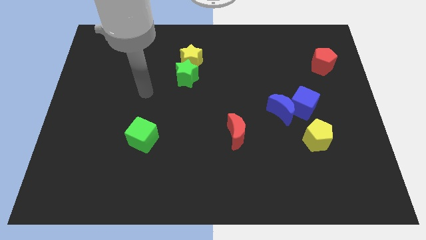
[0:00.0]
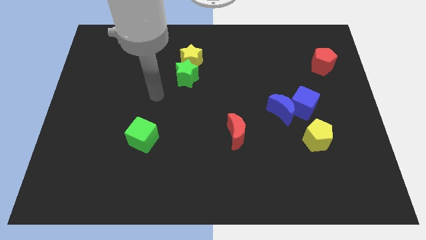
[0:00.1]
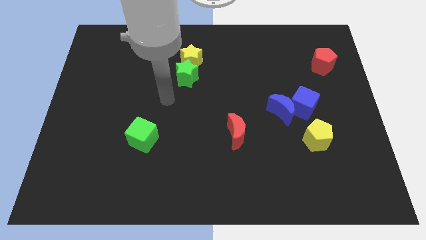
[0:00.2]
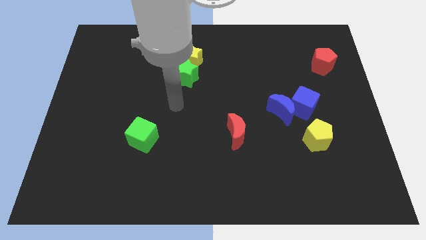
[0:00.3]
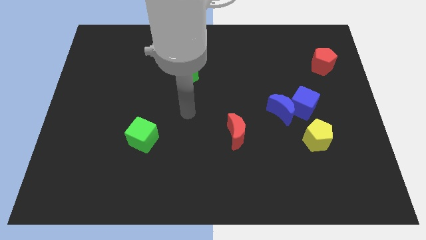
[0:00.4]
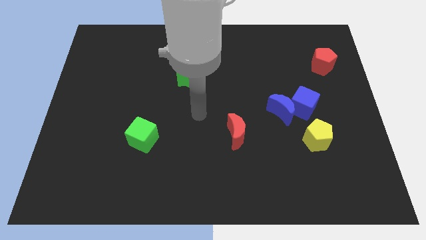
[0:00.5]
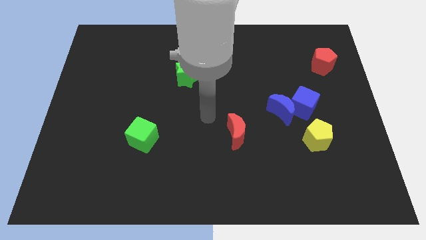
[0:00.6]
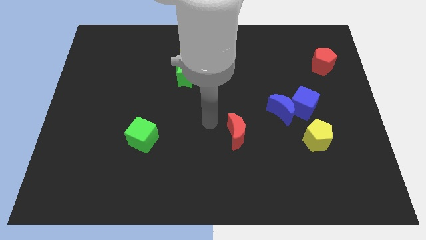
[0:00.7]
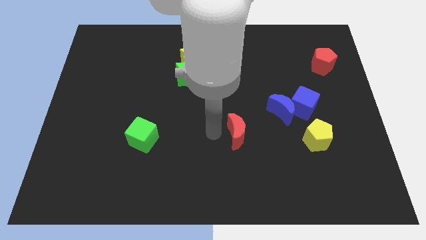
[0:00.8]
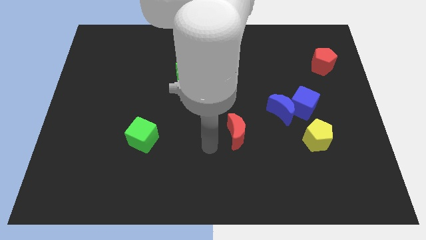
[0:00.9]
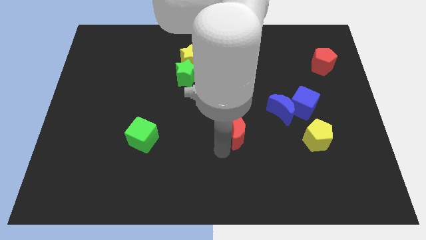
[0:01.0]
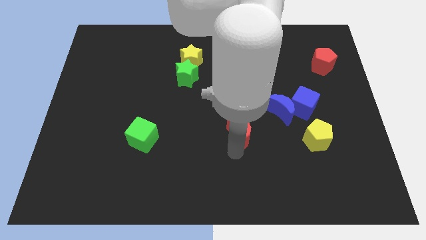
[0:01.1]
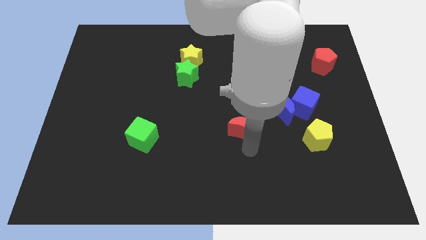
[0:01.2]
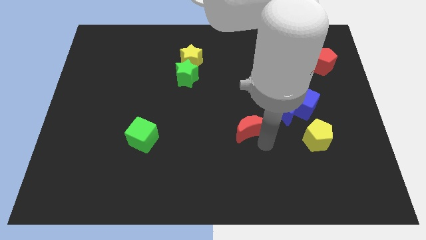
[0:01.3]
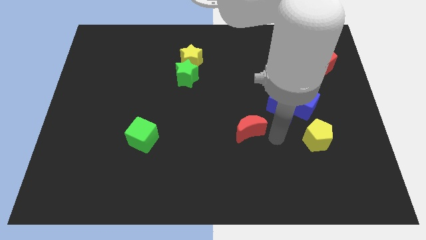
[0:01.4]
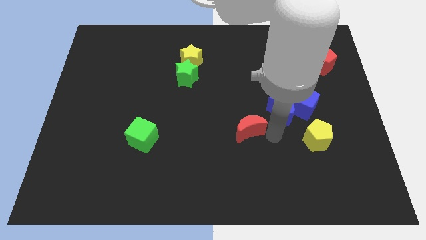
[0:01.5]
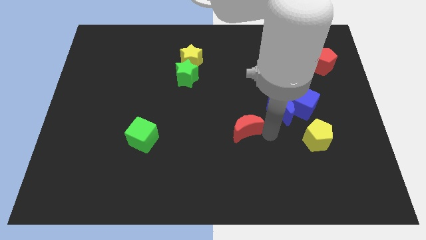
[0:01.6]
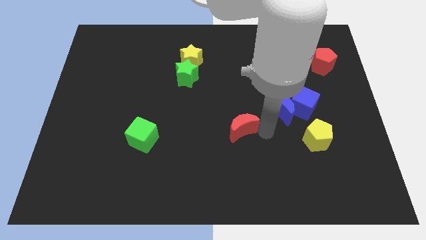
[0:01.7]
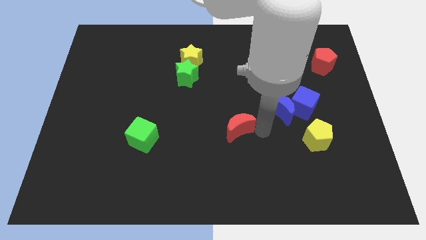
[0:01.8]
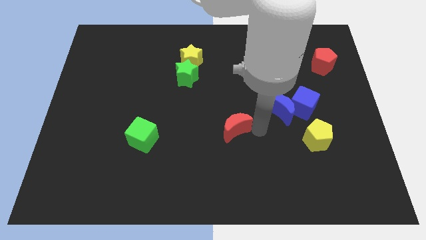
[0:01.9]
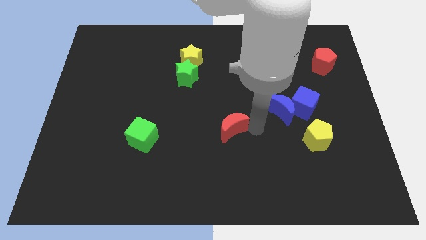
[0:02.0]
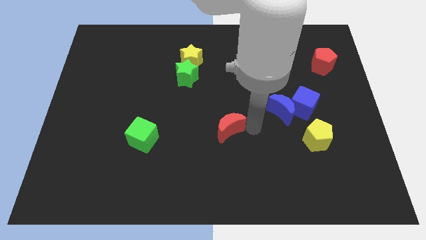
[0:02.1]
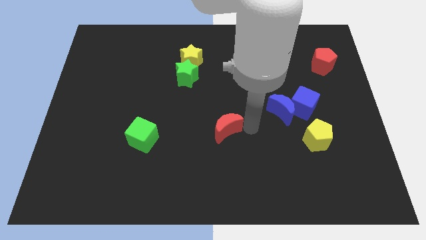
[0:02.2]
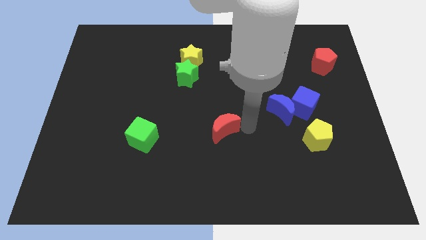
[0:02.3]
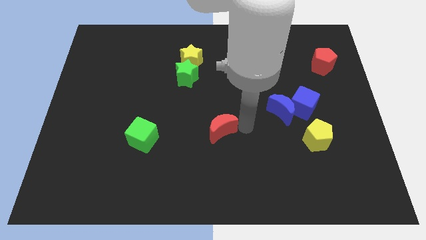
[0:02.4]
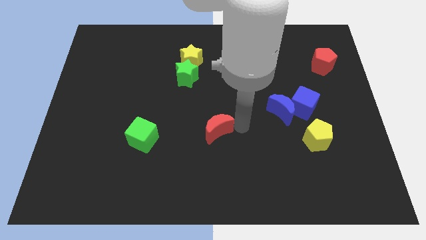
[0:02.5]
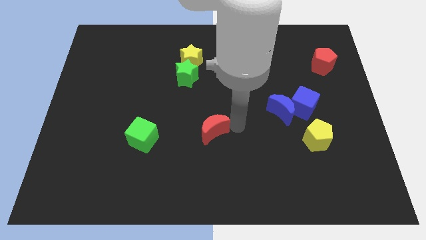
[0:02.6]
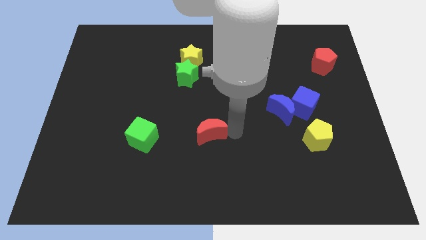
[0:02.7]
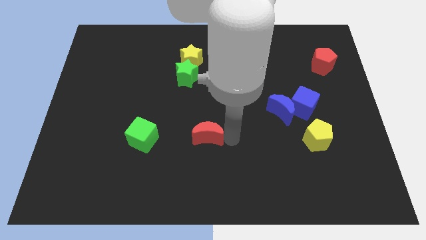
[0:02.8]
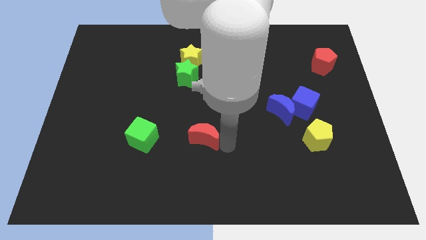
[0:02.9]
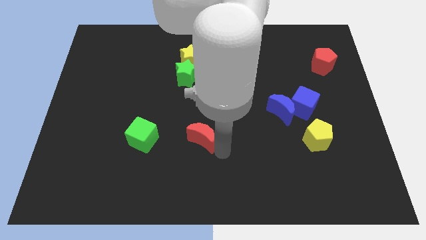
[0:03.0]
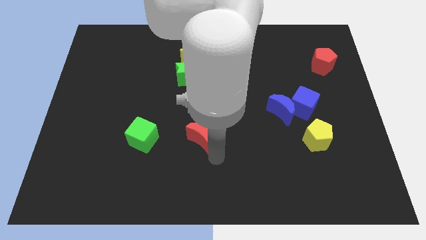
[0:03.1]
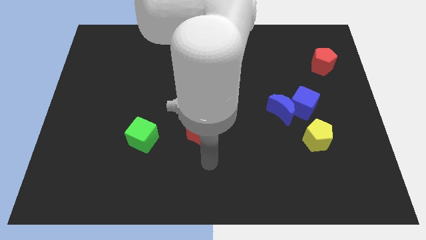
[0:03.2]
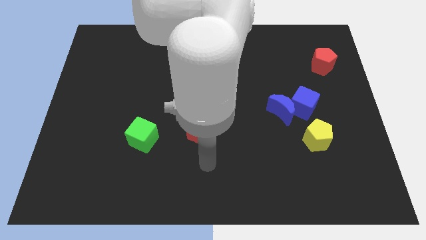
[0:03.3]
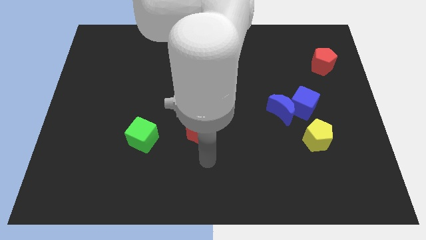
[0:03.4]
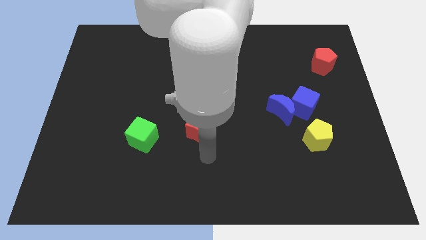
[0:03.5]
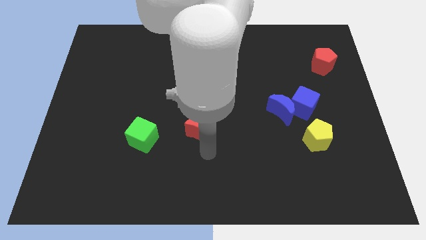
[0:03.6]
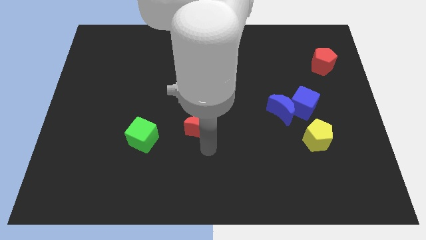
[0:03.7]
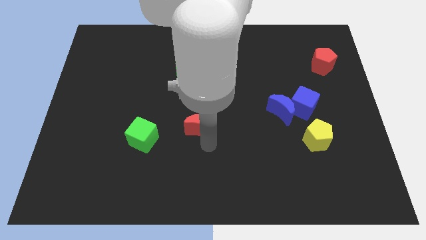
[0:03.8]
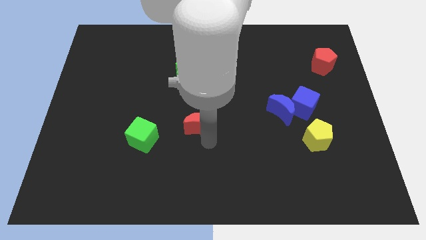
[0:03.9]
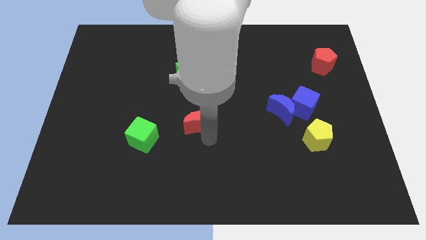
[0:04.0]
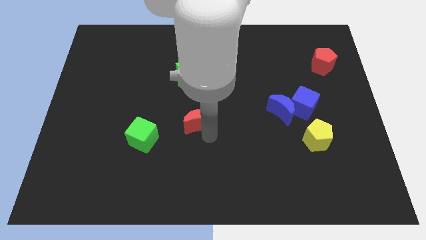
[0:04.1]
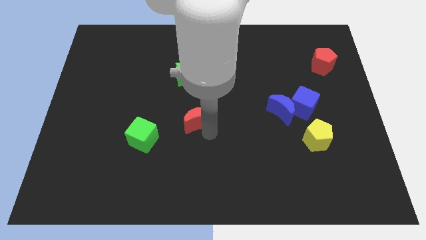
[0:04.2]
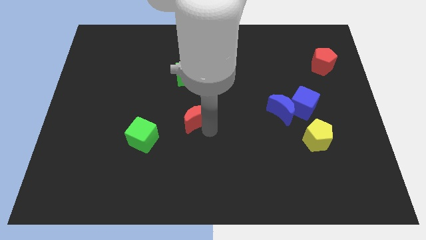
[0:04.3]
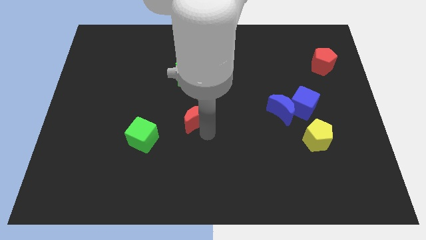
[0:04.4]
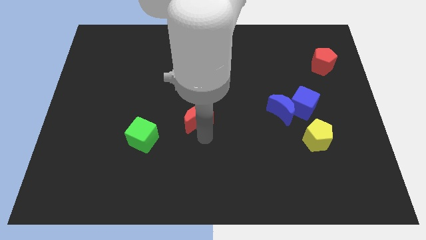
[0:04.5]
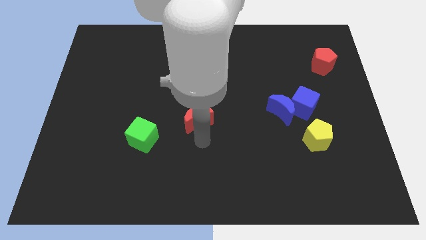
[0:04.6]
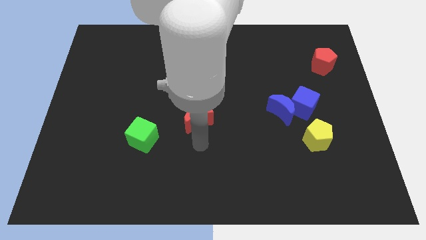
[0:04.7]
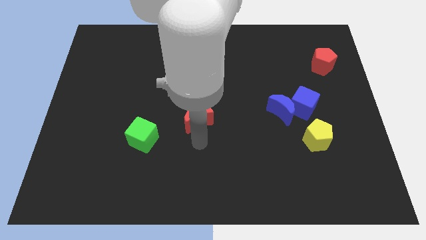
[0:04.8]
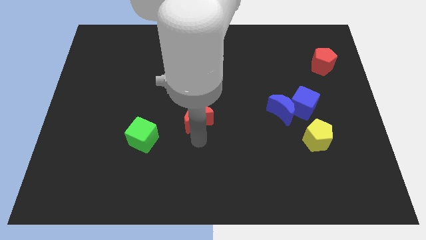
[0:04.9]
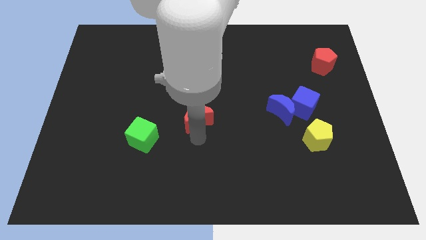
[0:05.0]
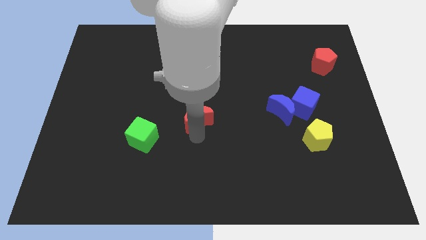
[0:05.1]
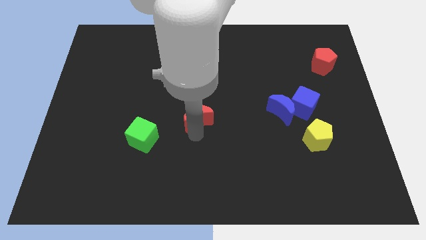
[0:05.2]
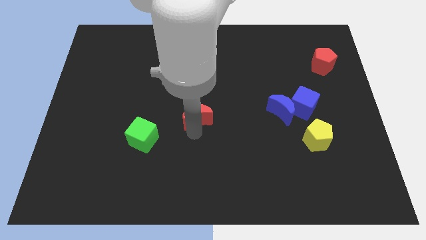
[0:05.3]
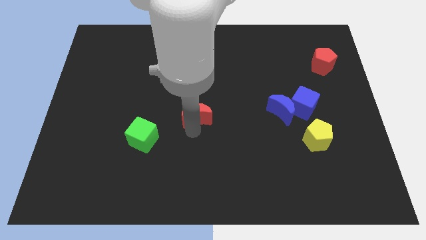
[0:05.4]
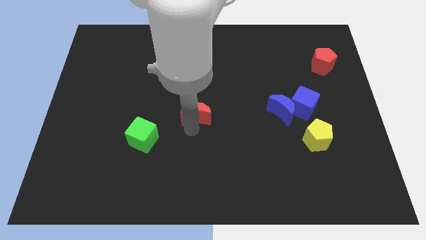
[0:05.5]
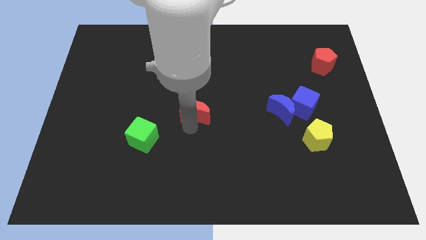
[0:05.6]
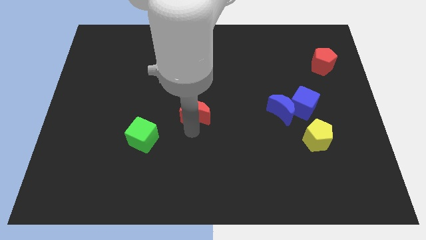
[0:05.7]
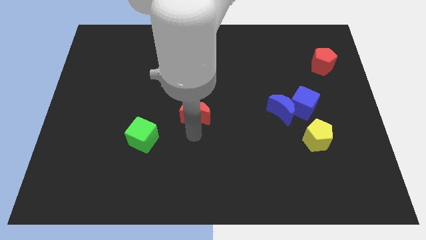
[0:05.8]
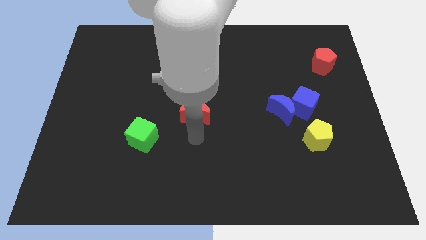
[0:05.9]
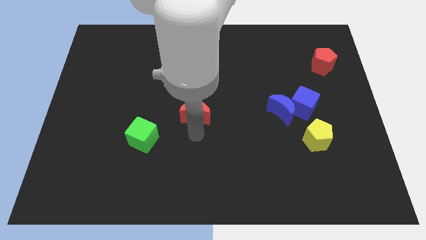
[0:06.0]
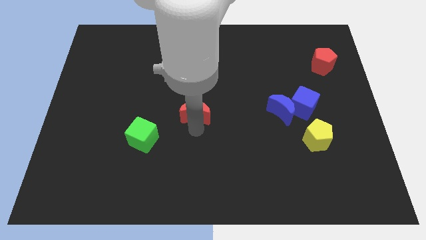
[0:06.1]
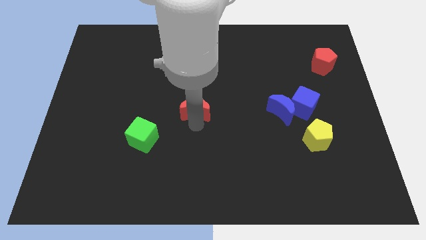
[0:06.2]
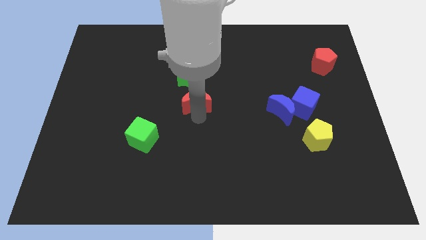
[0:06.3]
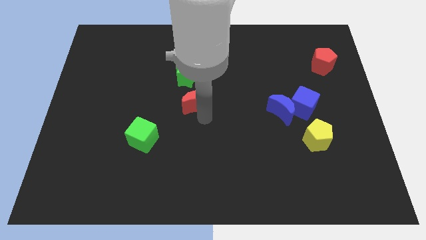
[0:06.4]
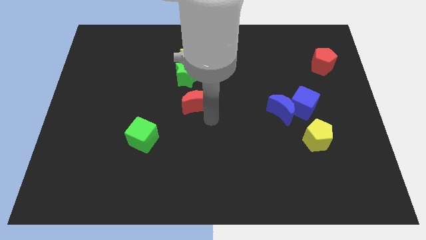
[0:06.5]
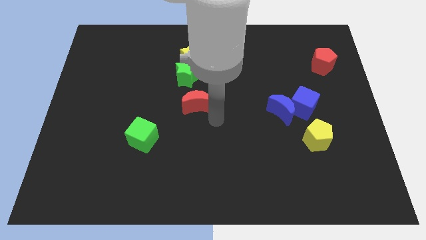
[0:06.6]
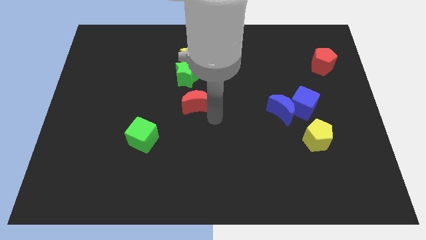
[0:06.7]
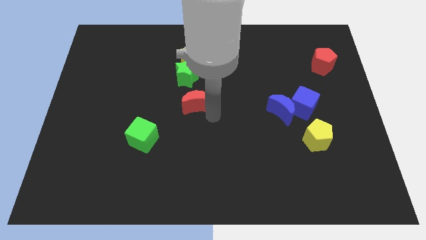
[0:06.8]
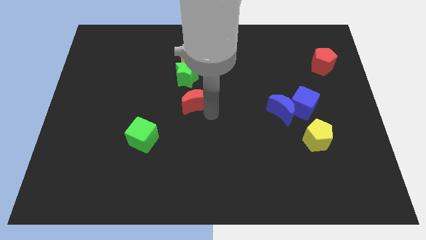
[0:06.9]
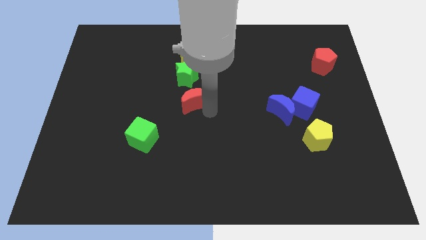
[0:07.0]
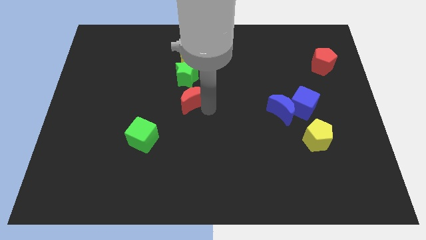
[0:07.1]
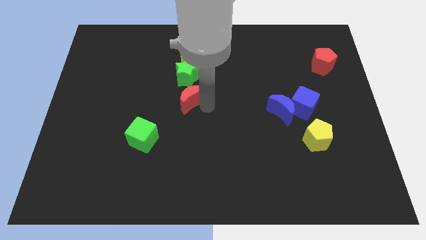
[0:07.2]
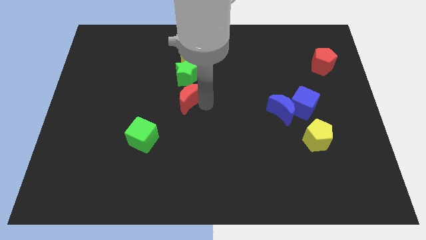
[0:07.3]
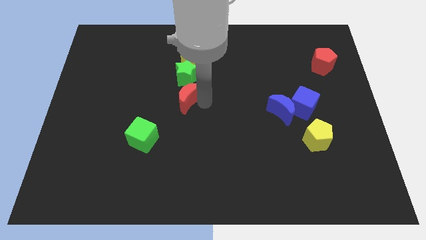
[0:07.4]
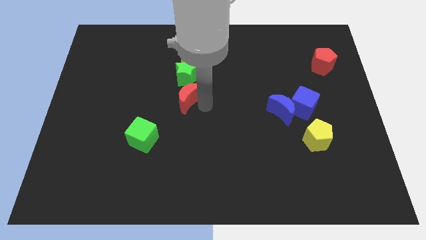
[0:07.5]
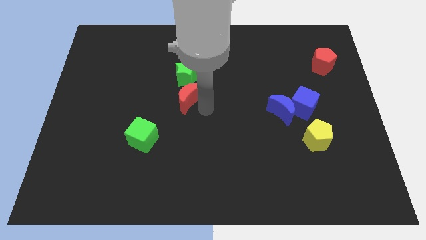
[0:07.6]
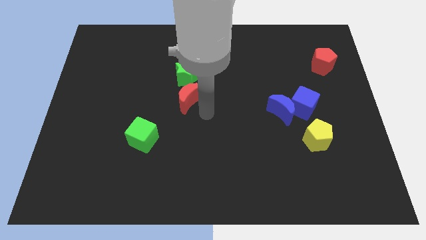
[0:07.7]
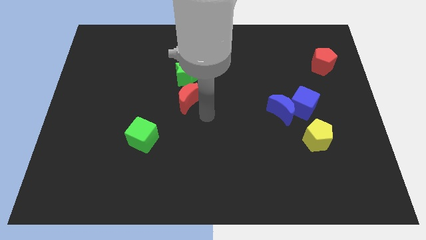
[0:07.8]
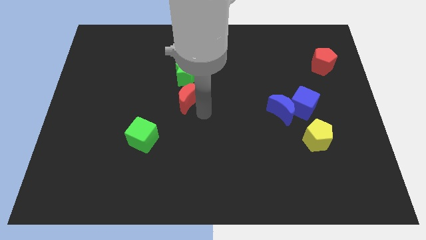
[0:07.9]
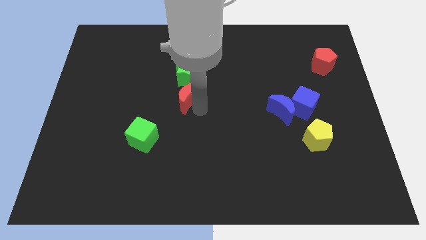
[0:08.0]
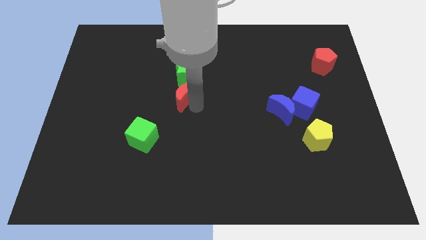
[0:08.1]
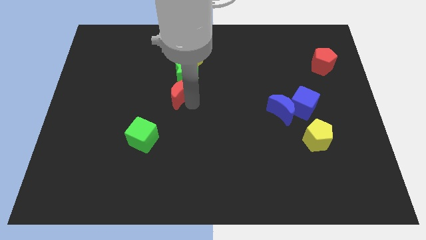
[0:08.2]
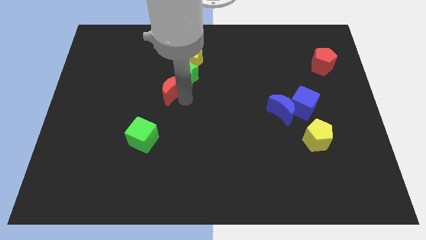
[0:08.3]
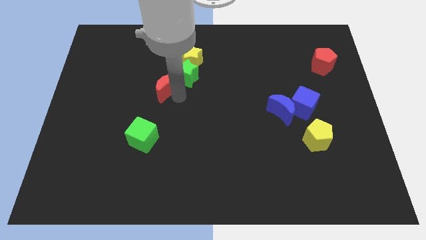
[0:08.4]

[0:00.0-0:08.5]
push the red moon diagonally up and to the left
